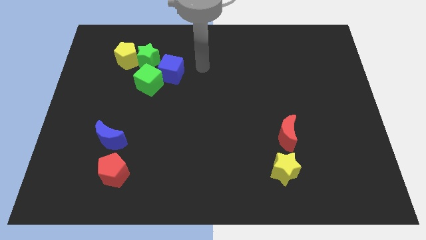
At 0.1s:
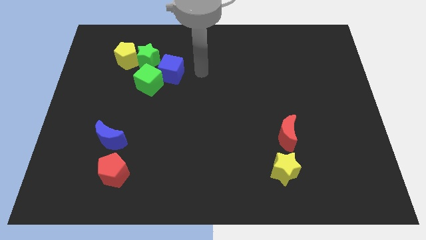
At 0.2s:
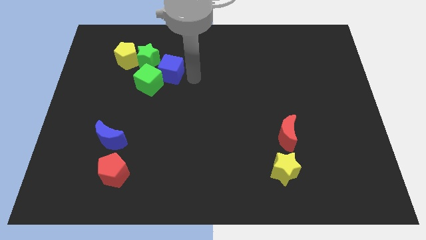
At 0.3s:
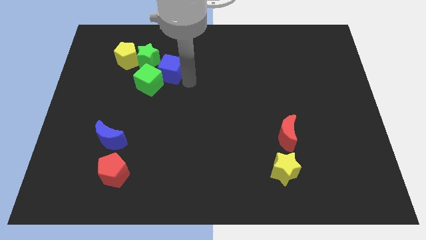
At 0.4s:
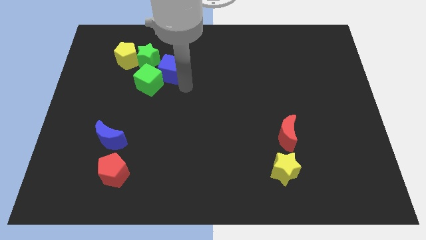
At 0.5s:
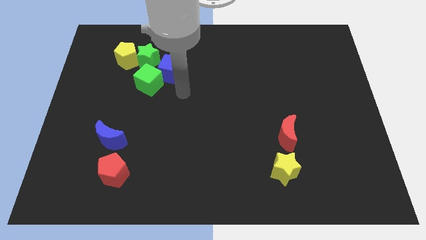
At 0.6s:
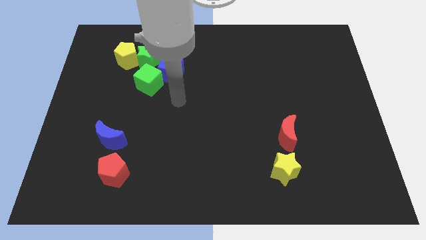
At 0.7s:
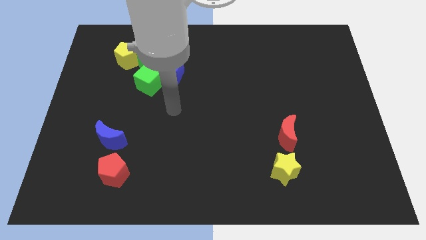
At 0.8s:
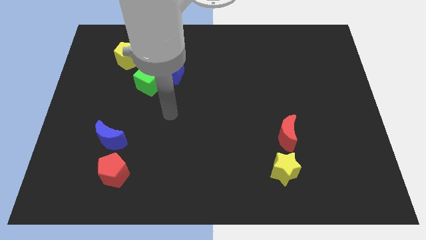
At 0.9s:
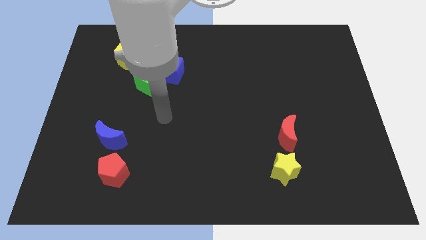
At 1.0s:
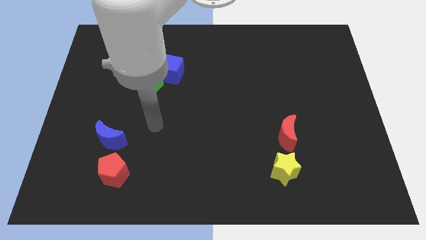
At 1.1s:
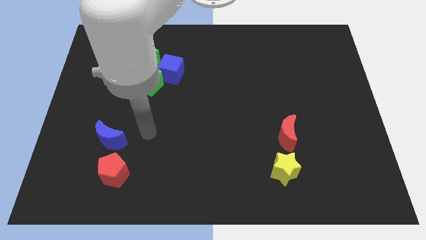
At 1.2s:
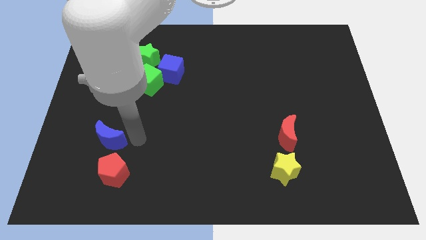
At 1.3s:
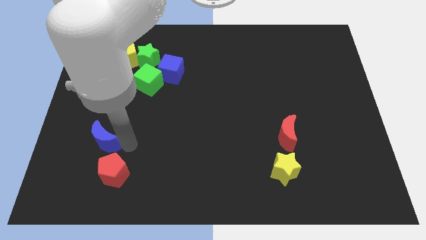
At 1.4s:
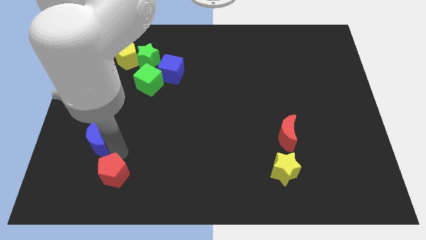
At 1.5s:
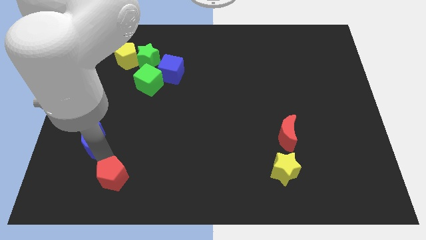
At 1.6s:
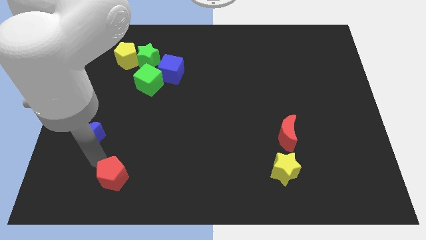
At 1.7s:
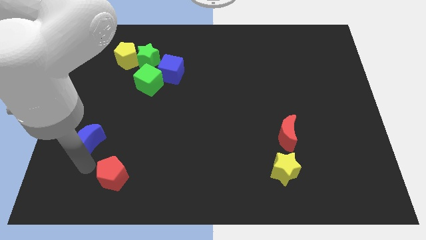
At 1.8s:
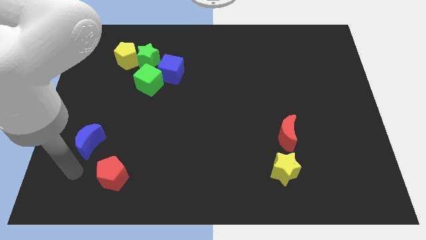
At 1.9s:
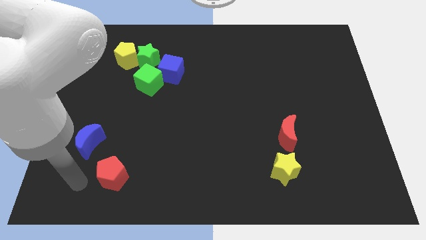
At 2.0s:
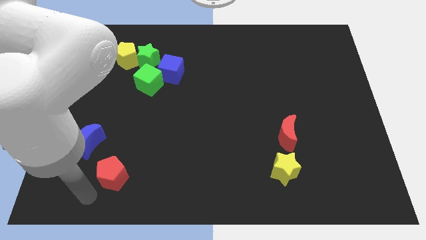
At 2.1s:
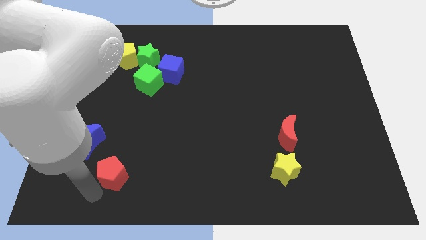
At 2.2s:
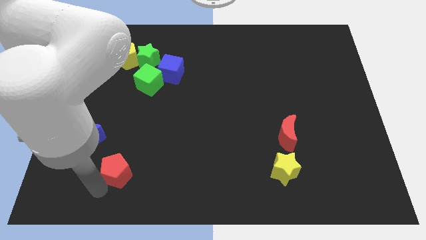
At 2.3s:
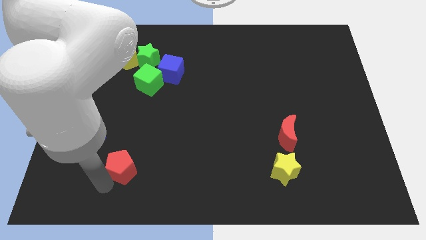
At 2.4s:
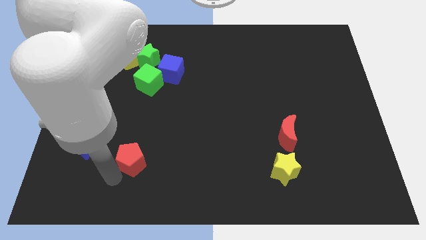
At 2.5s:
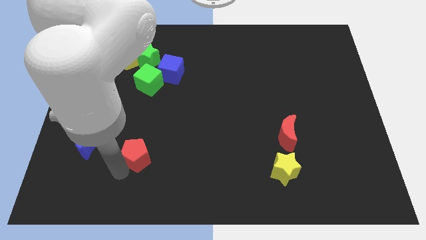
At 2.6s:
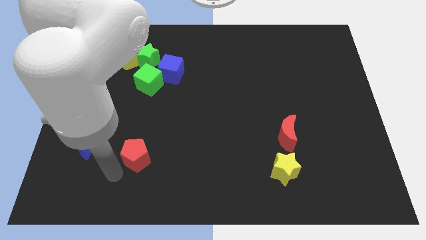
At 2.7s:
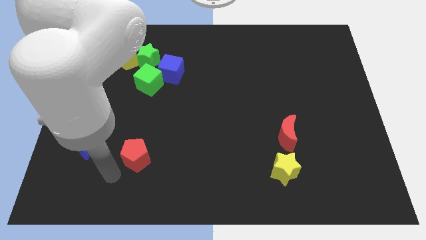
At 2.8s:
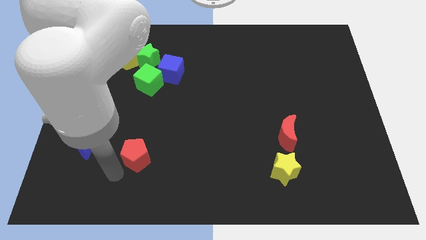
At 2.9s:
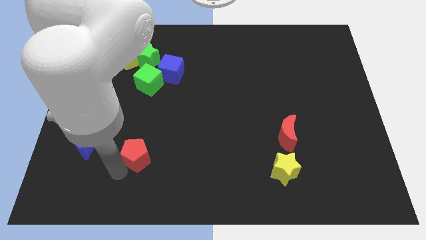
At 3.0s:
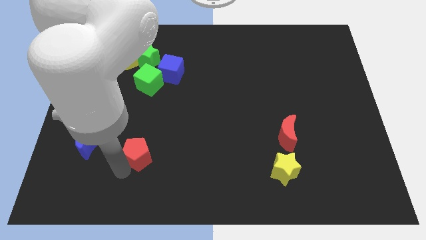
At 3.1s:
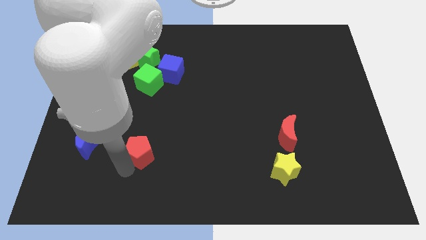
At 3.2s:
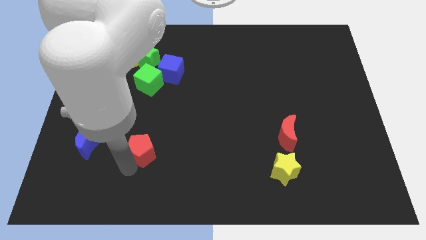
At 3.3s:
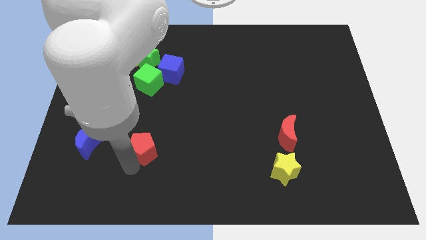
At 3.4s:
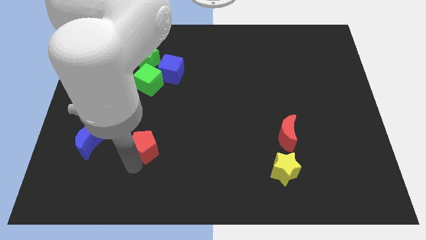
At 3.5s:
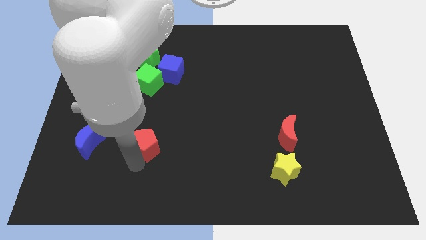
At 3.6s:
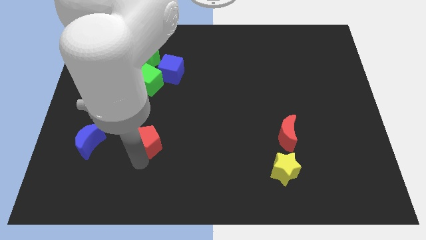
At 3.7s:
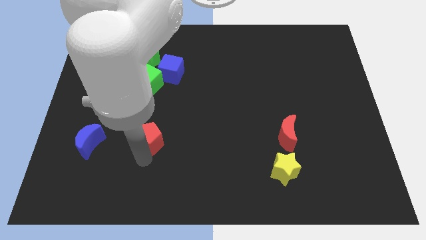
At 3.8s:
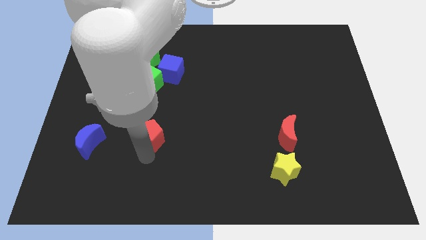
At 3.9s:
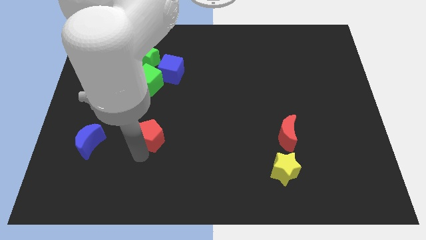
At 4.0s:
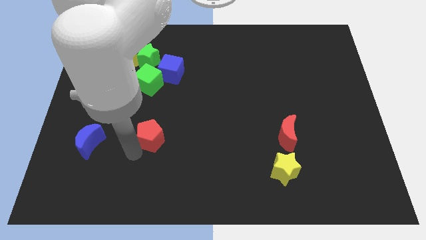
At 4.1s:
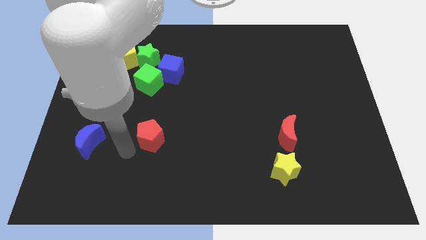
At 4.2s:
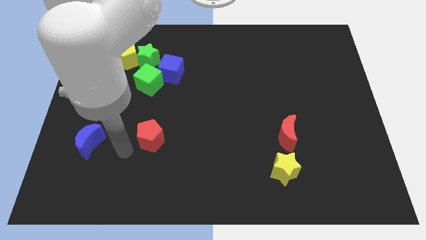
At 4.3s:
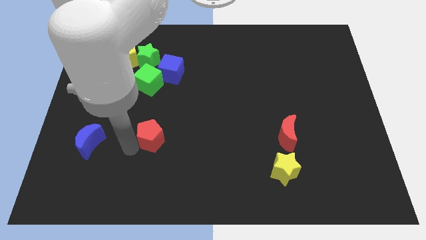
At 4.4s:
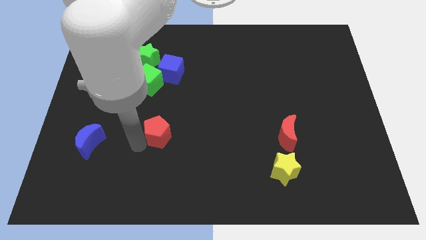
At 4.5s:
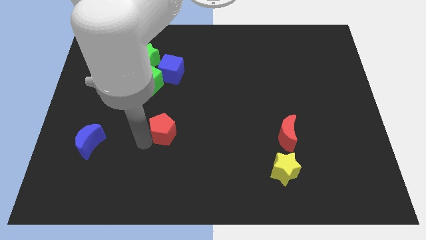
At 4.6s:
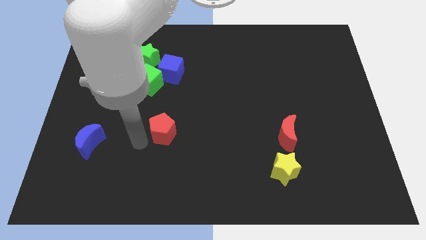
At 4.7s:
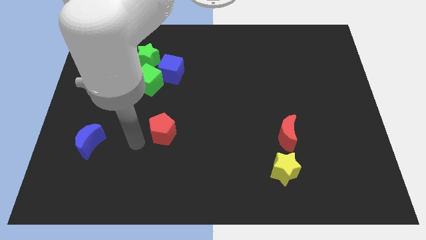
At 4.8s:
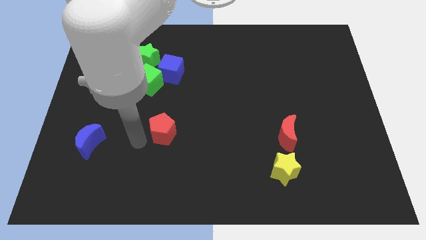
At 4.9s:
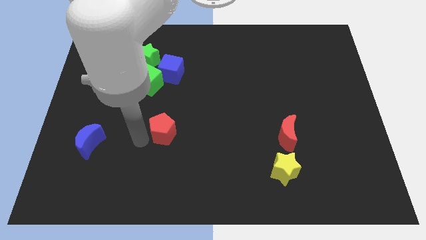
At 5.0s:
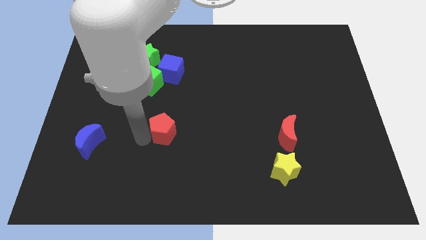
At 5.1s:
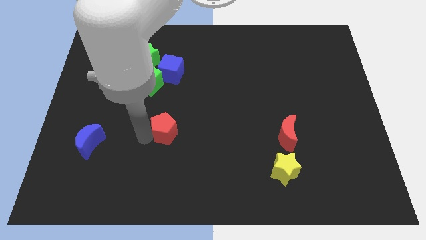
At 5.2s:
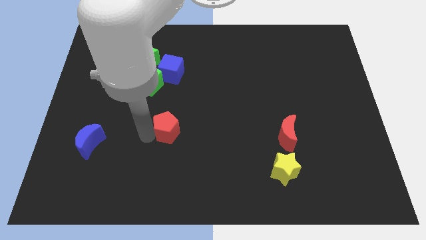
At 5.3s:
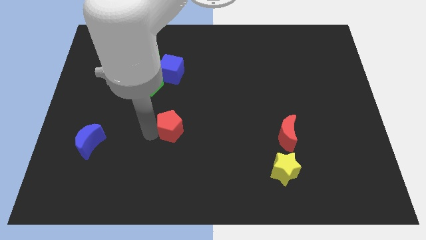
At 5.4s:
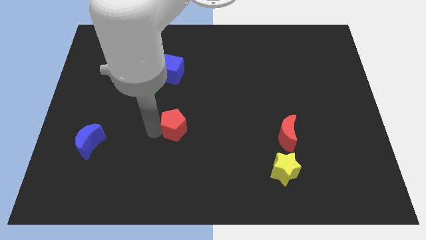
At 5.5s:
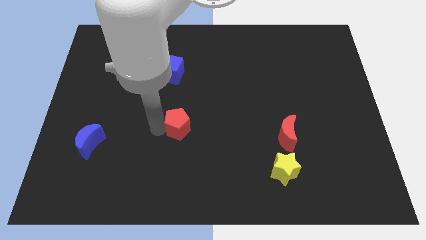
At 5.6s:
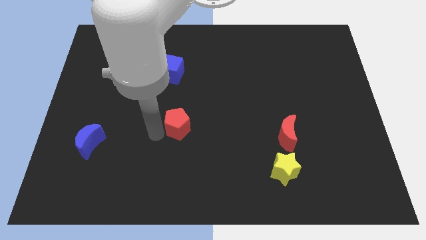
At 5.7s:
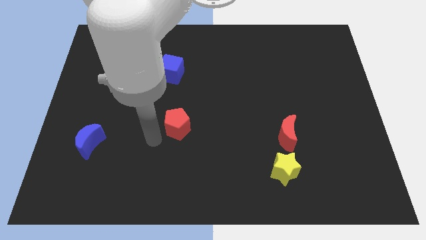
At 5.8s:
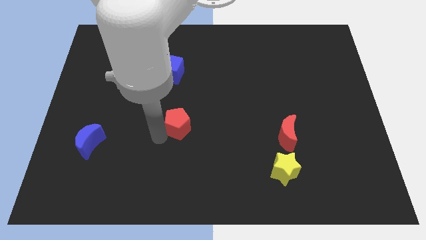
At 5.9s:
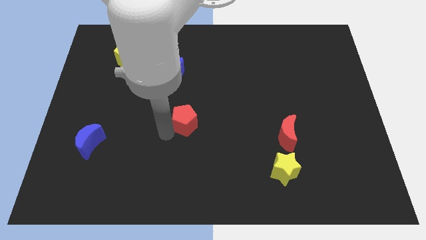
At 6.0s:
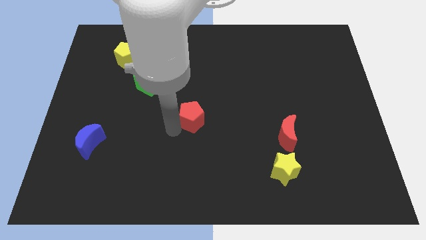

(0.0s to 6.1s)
move the red pentagon up and to the right

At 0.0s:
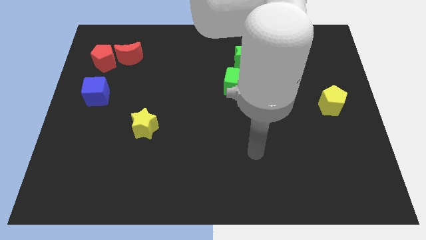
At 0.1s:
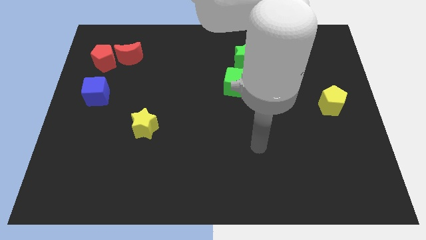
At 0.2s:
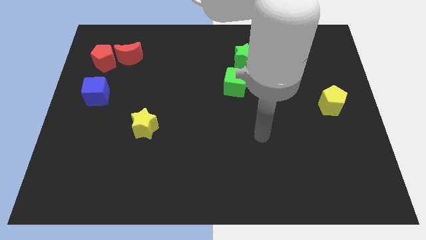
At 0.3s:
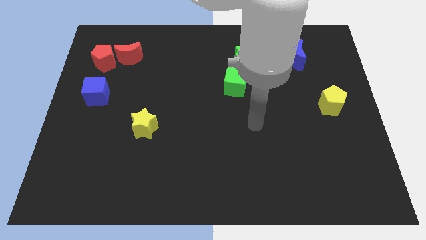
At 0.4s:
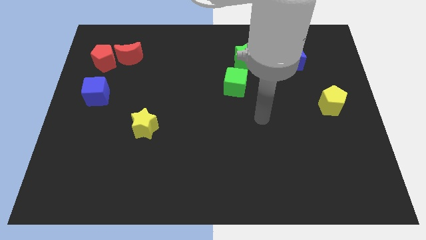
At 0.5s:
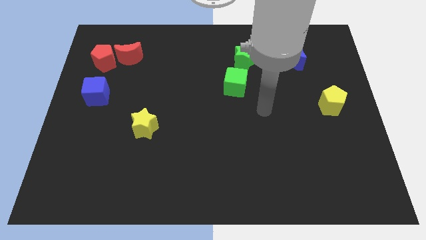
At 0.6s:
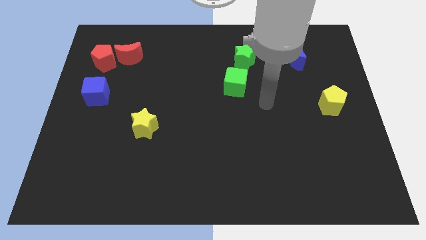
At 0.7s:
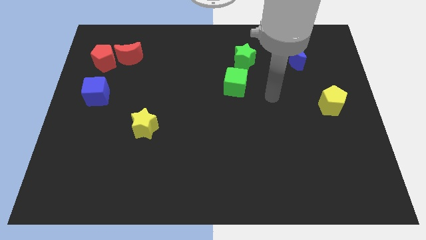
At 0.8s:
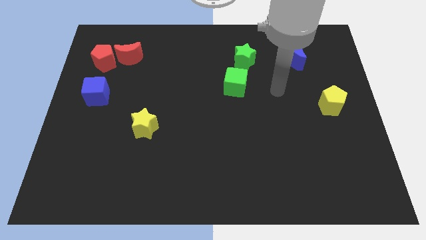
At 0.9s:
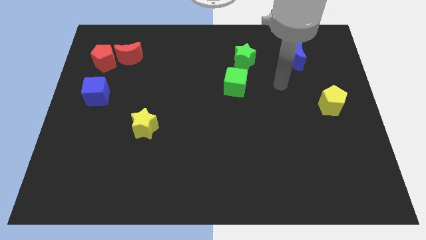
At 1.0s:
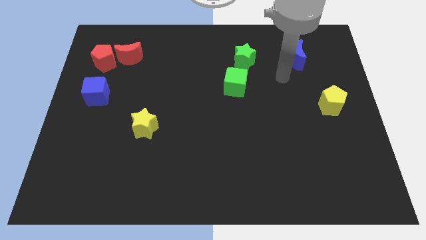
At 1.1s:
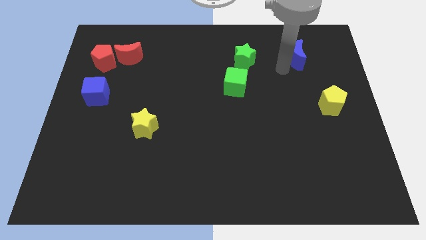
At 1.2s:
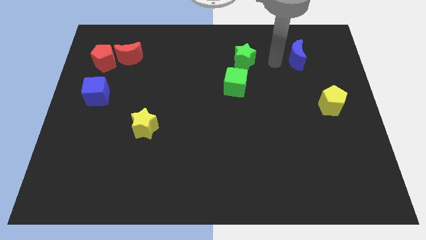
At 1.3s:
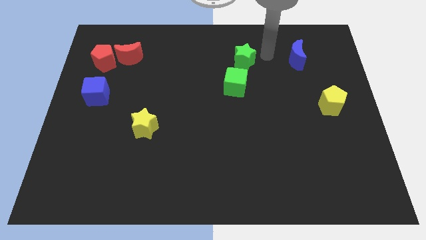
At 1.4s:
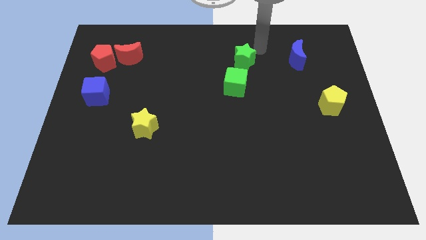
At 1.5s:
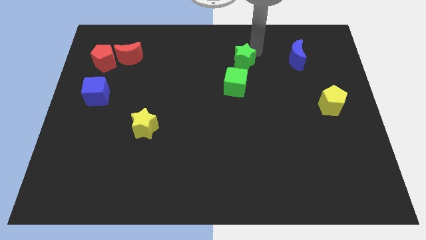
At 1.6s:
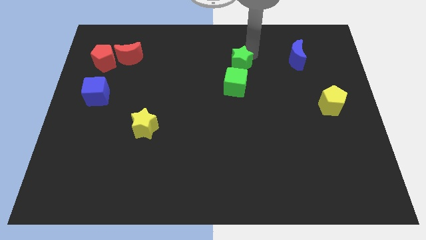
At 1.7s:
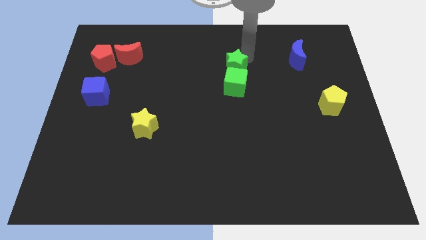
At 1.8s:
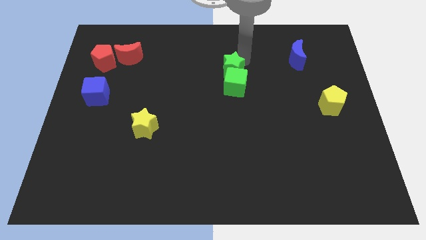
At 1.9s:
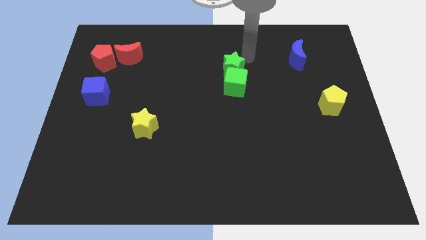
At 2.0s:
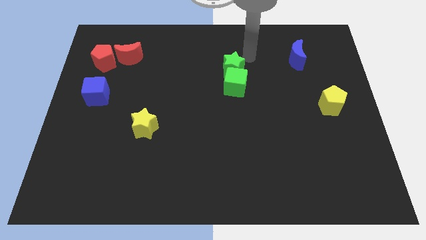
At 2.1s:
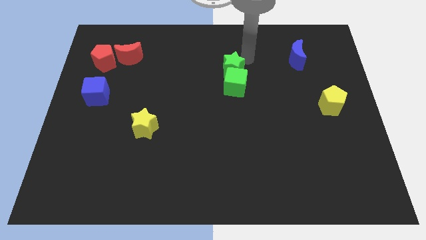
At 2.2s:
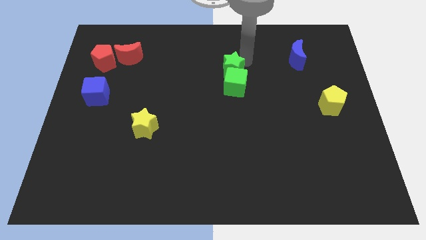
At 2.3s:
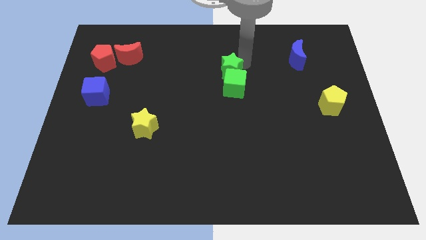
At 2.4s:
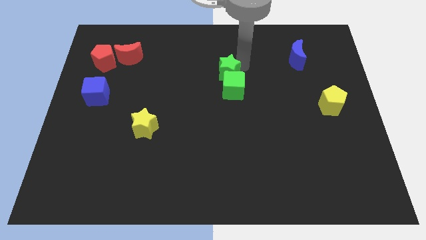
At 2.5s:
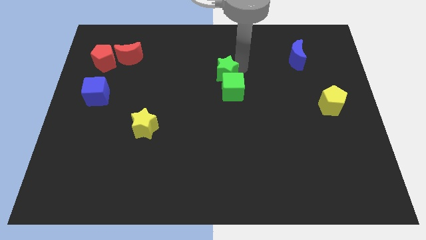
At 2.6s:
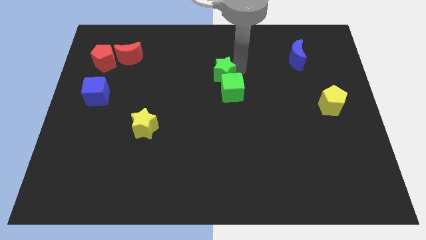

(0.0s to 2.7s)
move the green star down and left diagonally a bit
